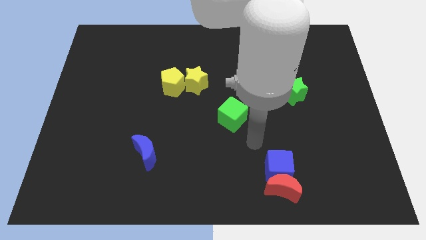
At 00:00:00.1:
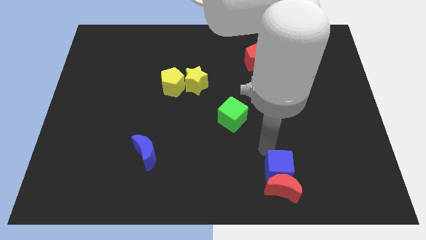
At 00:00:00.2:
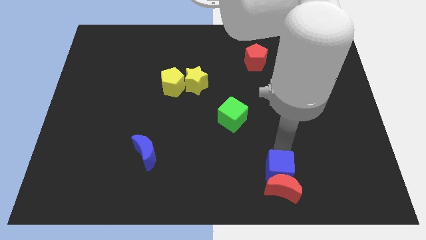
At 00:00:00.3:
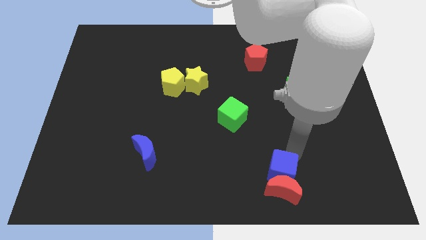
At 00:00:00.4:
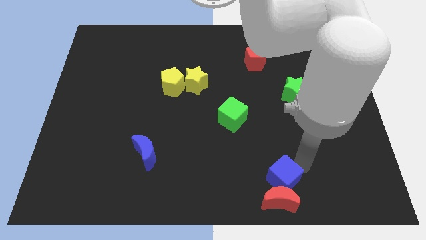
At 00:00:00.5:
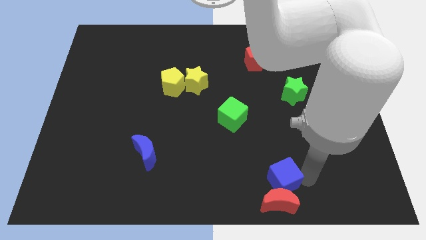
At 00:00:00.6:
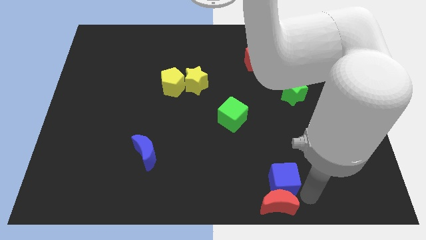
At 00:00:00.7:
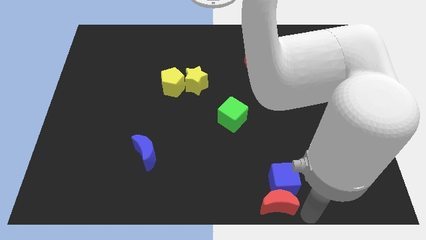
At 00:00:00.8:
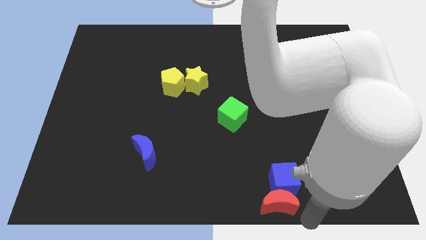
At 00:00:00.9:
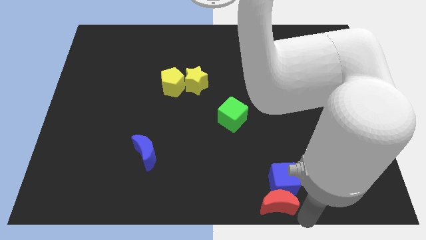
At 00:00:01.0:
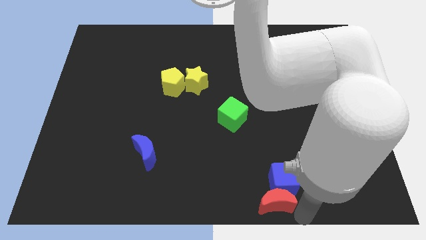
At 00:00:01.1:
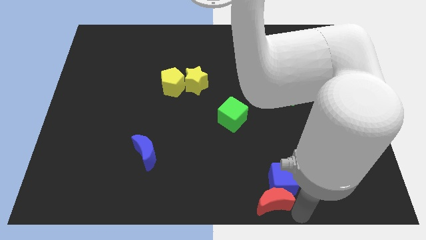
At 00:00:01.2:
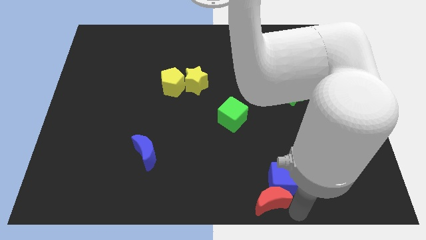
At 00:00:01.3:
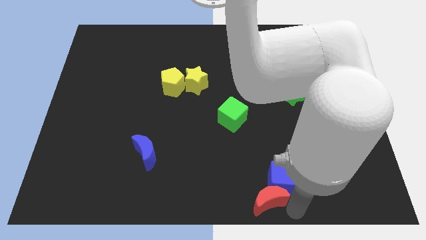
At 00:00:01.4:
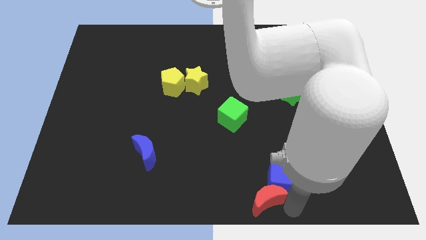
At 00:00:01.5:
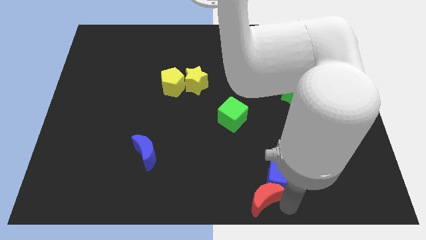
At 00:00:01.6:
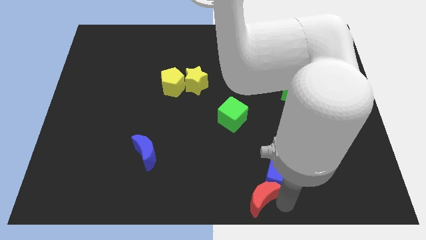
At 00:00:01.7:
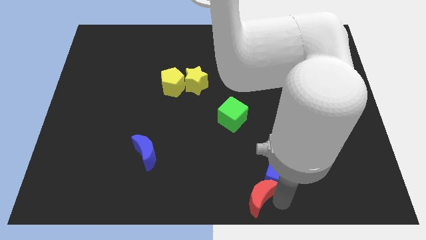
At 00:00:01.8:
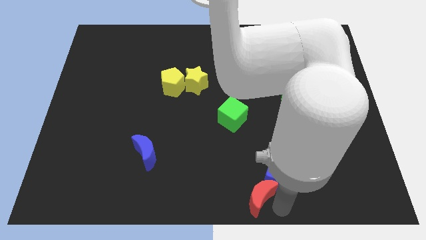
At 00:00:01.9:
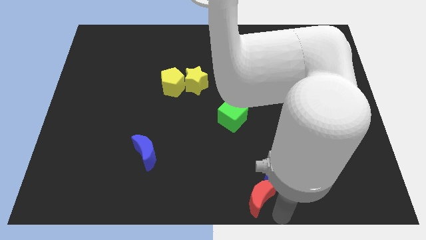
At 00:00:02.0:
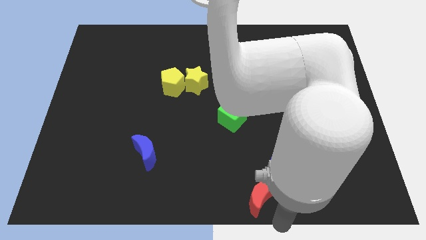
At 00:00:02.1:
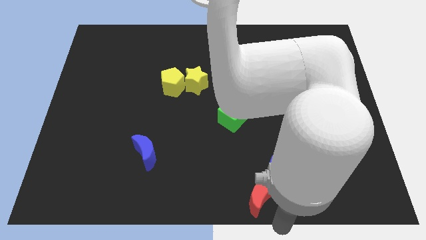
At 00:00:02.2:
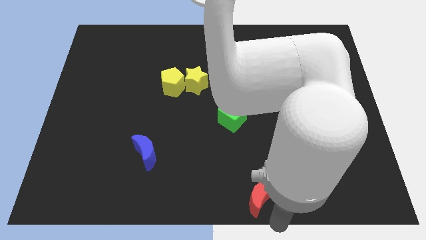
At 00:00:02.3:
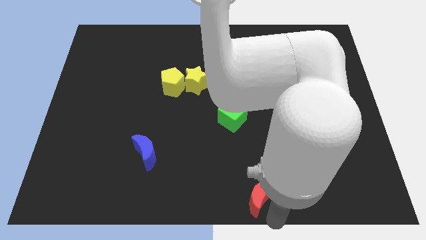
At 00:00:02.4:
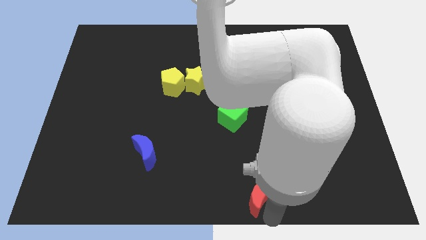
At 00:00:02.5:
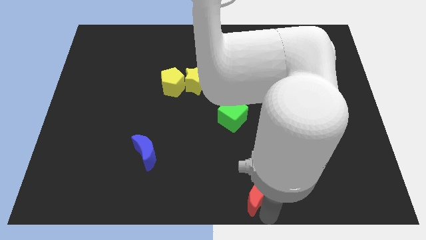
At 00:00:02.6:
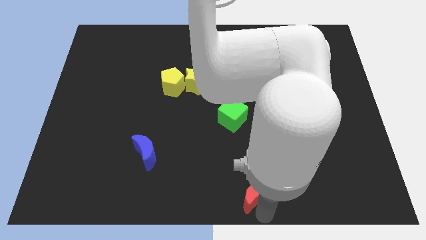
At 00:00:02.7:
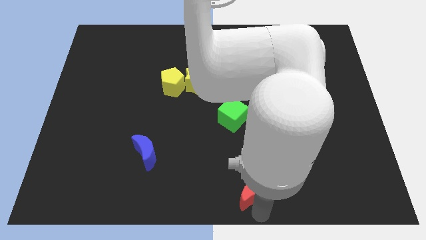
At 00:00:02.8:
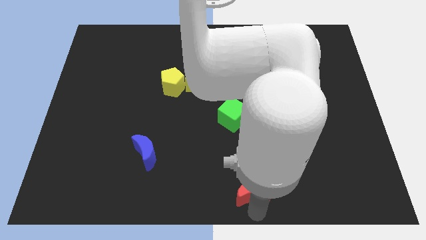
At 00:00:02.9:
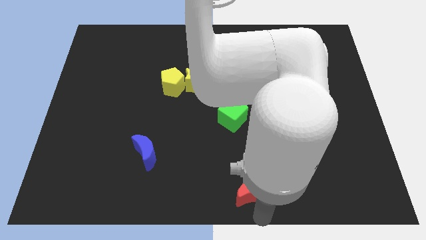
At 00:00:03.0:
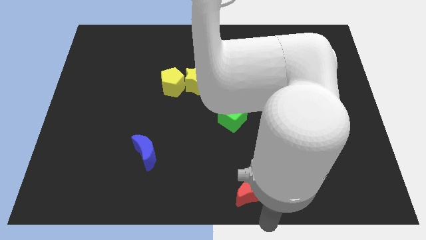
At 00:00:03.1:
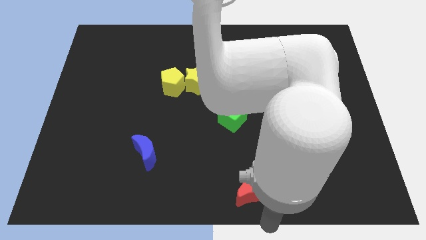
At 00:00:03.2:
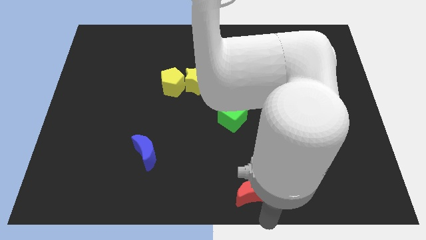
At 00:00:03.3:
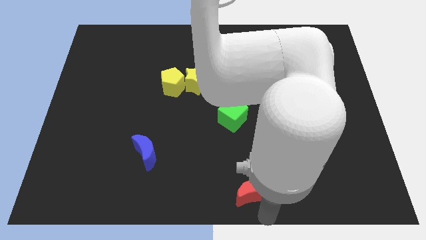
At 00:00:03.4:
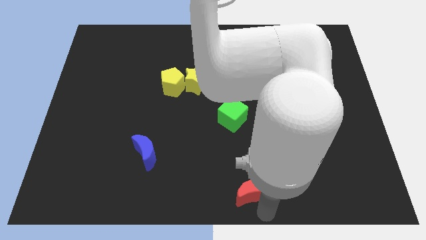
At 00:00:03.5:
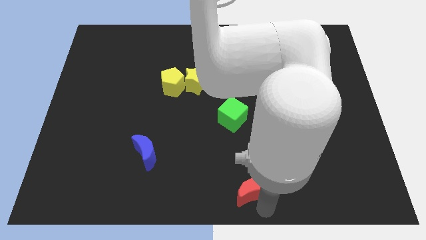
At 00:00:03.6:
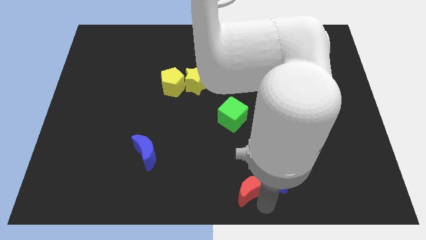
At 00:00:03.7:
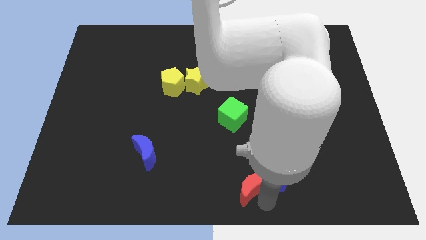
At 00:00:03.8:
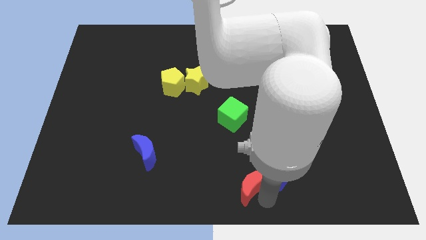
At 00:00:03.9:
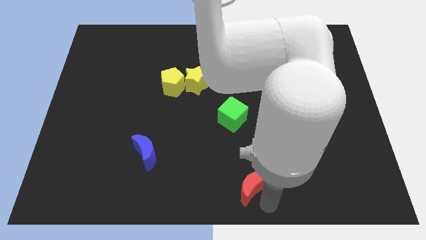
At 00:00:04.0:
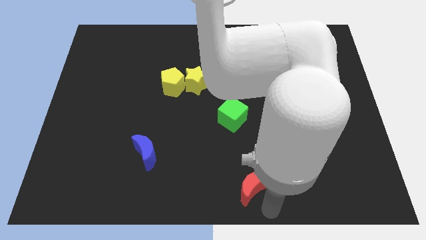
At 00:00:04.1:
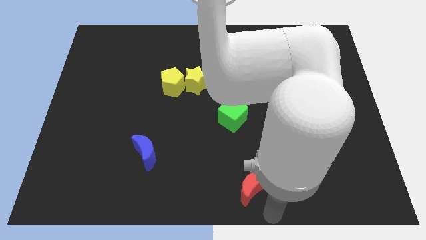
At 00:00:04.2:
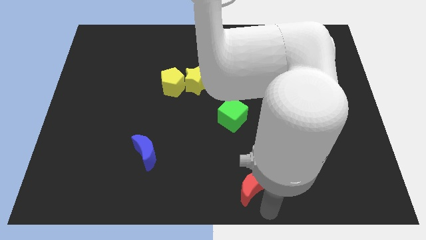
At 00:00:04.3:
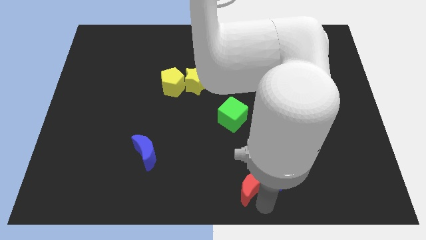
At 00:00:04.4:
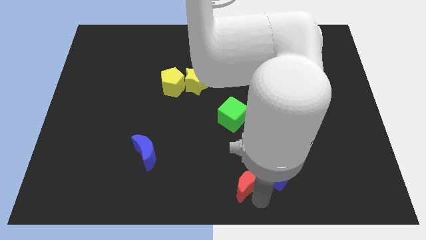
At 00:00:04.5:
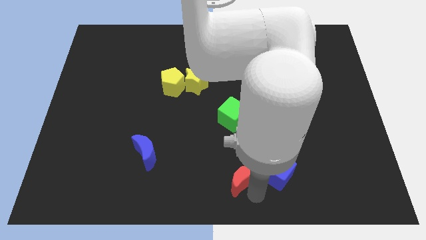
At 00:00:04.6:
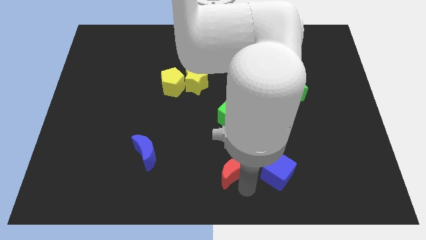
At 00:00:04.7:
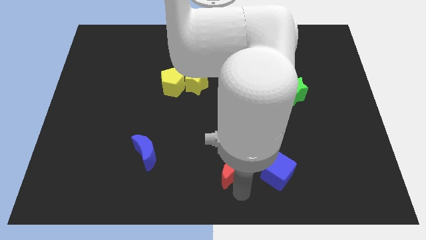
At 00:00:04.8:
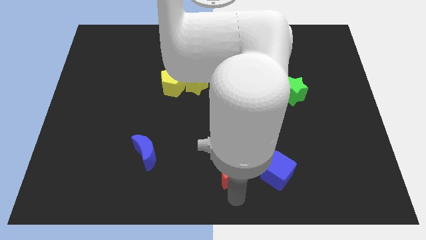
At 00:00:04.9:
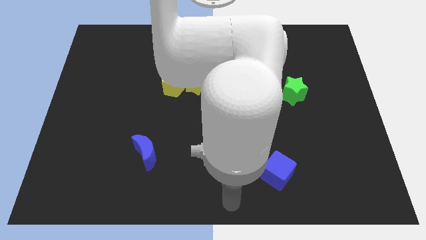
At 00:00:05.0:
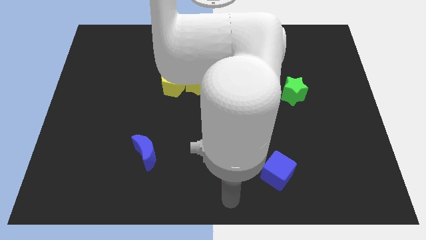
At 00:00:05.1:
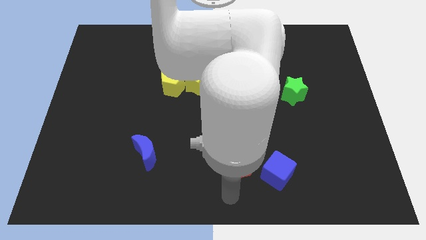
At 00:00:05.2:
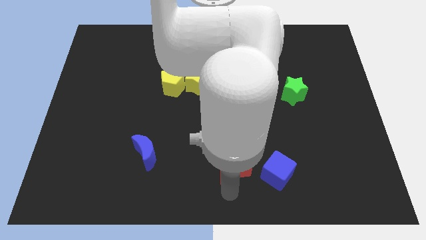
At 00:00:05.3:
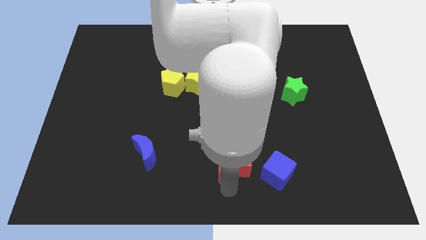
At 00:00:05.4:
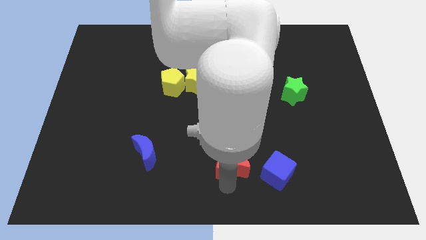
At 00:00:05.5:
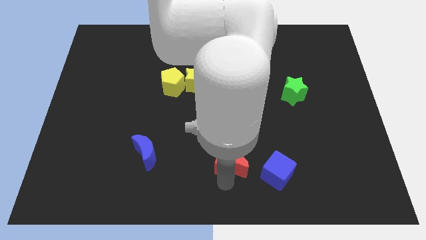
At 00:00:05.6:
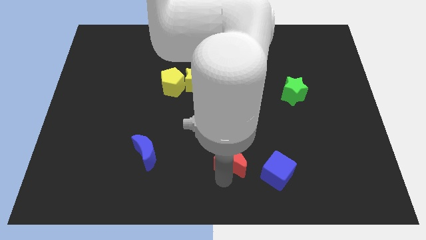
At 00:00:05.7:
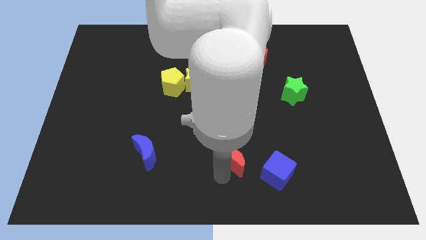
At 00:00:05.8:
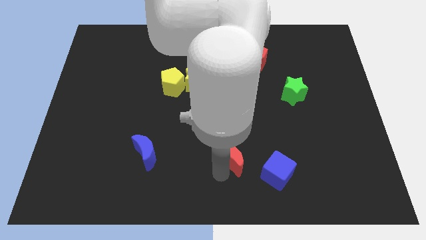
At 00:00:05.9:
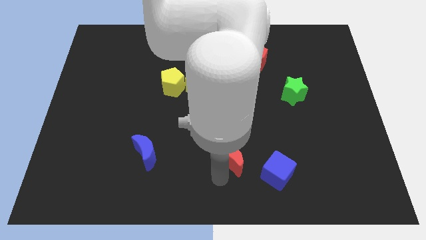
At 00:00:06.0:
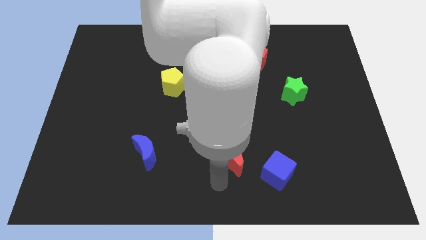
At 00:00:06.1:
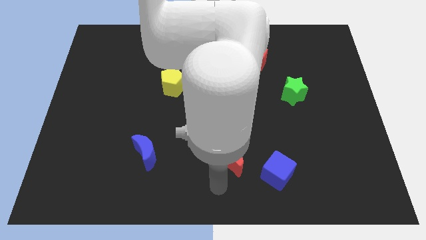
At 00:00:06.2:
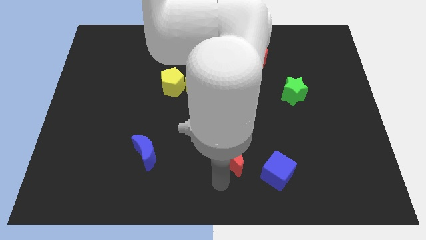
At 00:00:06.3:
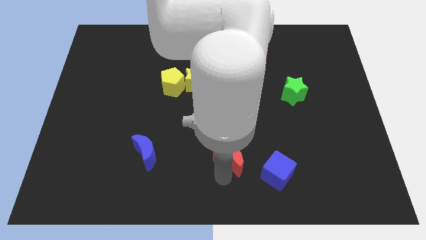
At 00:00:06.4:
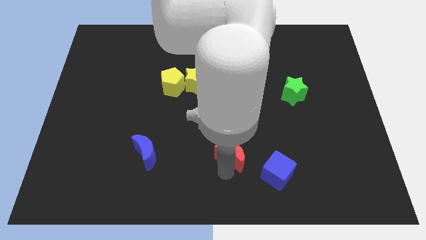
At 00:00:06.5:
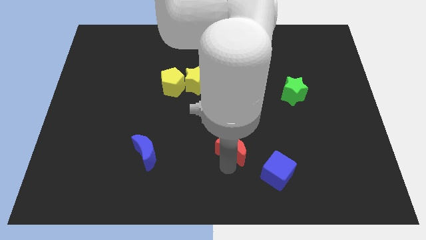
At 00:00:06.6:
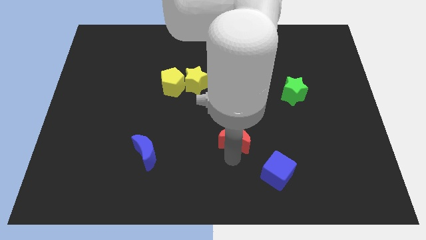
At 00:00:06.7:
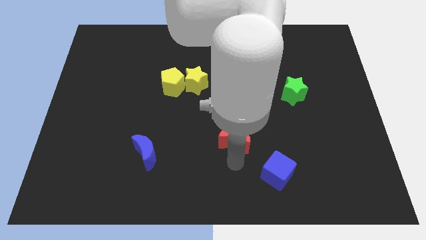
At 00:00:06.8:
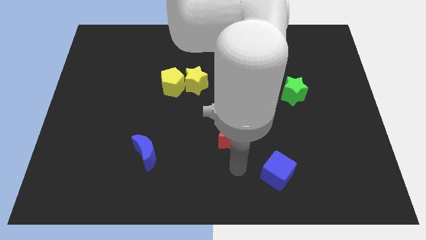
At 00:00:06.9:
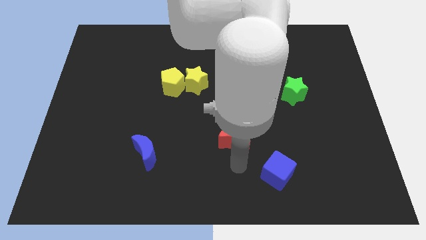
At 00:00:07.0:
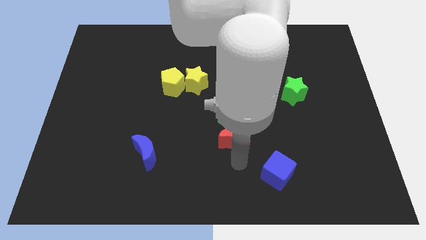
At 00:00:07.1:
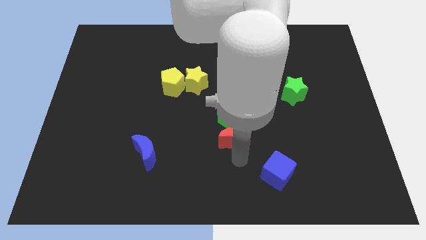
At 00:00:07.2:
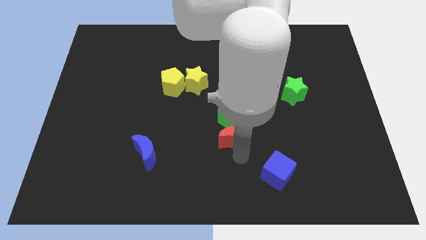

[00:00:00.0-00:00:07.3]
push the red moon towards the green cube

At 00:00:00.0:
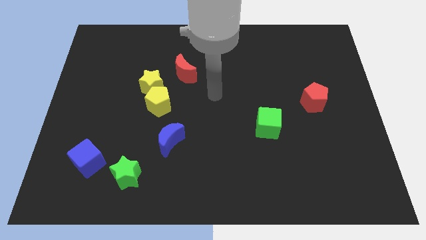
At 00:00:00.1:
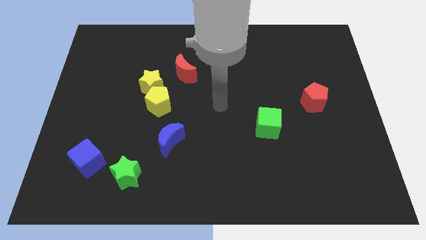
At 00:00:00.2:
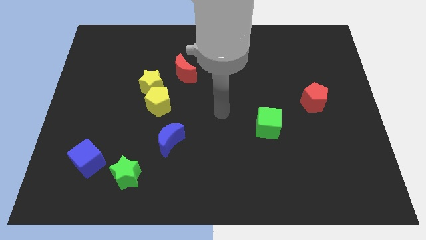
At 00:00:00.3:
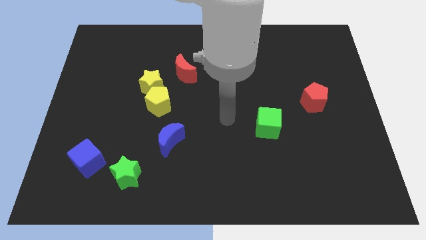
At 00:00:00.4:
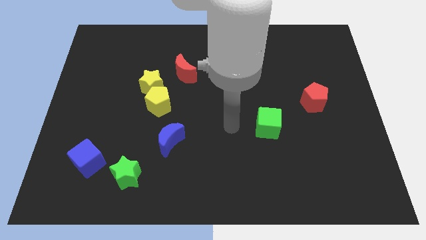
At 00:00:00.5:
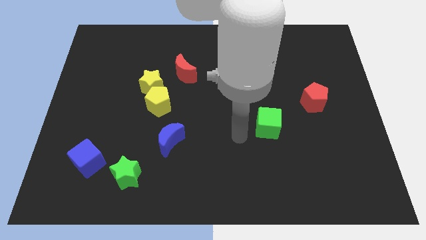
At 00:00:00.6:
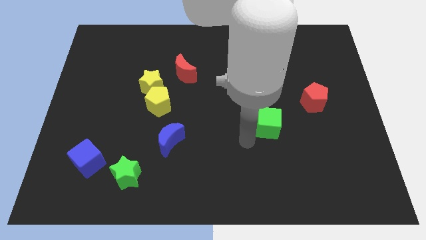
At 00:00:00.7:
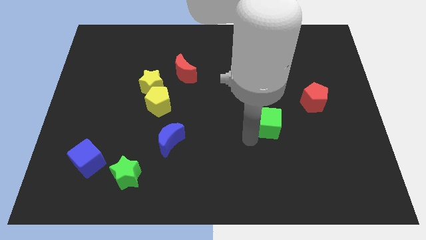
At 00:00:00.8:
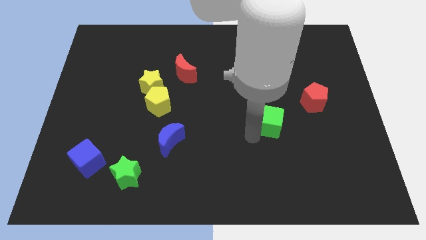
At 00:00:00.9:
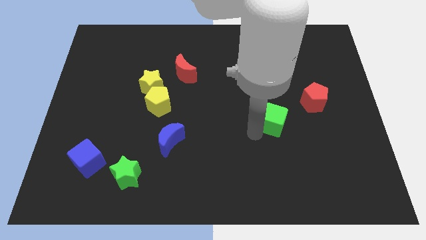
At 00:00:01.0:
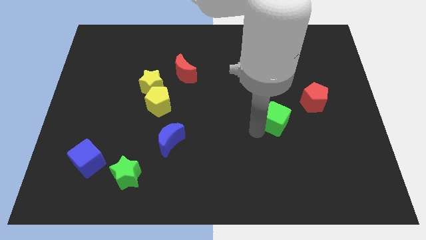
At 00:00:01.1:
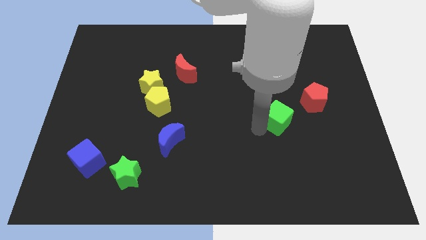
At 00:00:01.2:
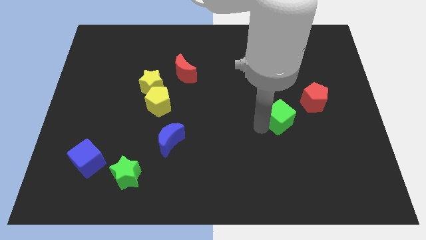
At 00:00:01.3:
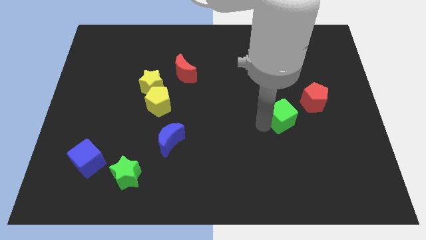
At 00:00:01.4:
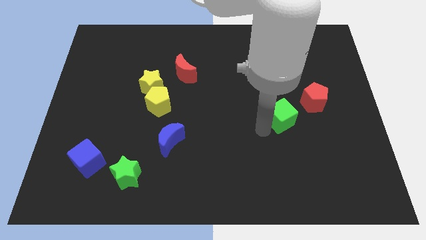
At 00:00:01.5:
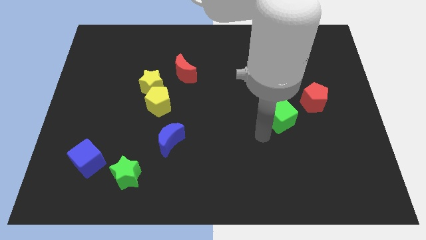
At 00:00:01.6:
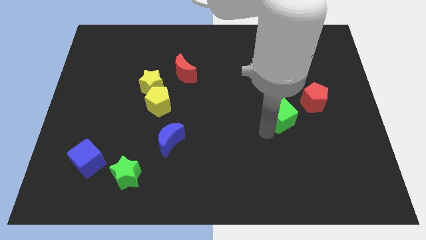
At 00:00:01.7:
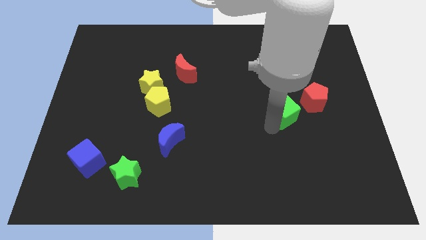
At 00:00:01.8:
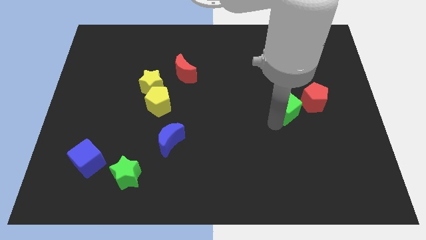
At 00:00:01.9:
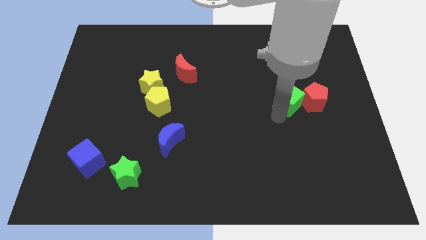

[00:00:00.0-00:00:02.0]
slide the green cube next to the red pentagon
